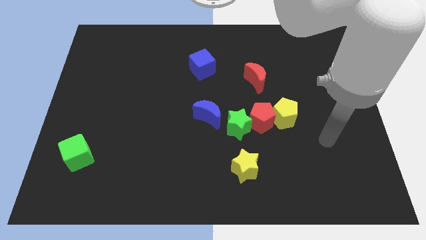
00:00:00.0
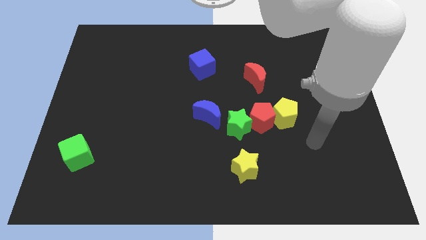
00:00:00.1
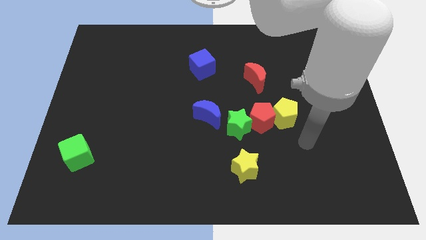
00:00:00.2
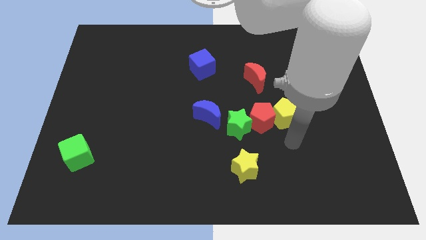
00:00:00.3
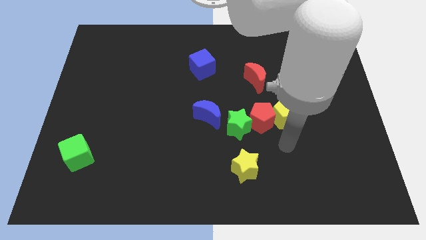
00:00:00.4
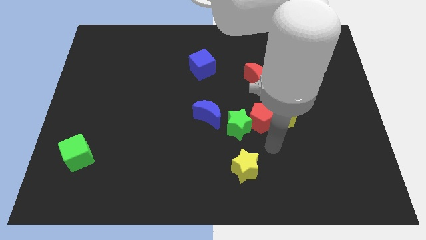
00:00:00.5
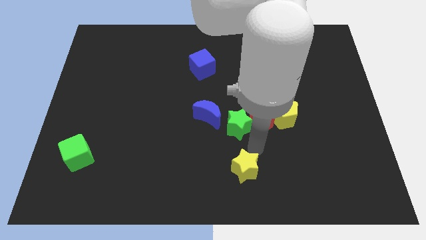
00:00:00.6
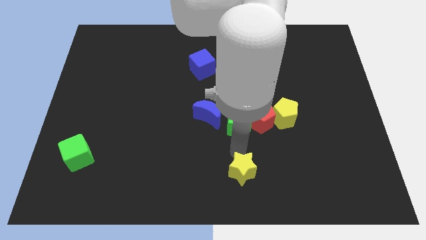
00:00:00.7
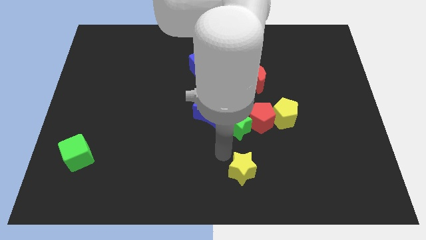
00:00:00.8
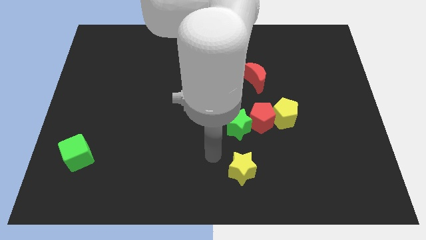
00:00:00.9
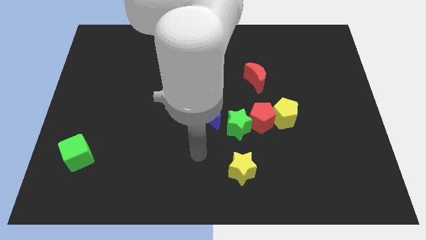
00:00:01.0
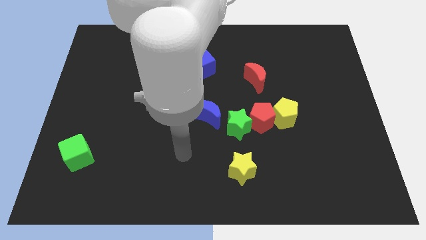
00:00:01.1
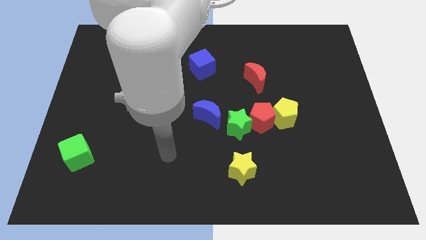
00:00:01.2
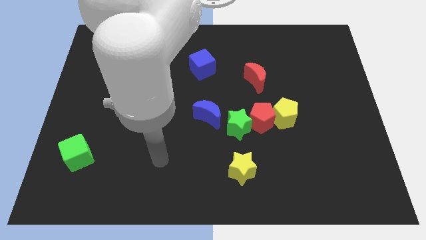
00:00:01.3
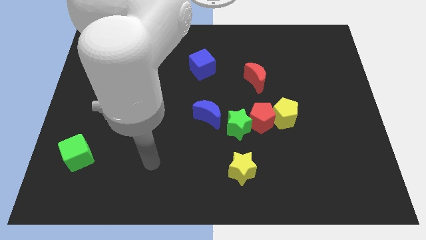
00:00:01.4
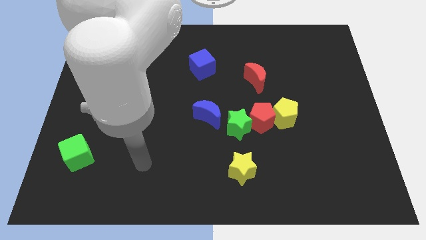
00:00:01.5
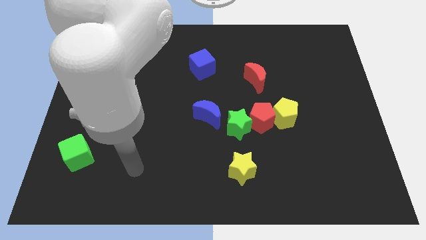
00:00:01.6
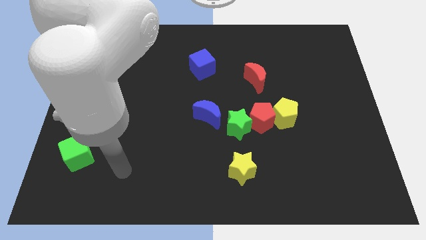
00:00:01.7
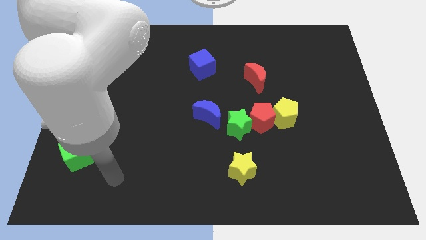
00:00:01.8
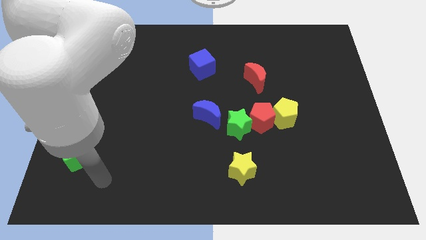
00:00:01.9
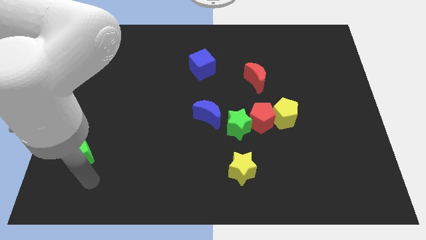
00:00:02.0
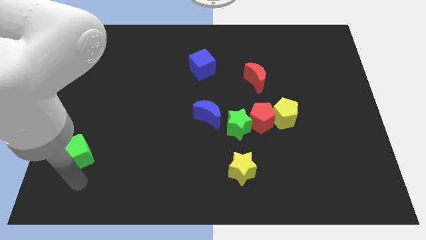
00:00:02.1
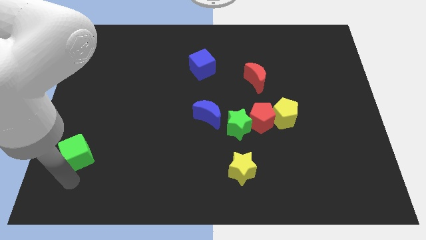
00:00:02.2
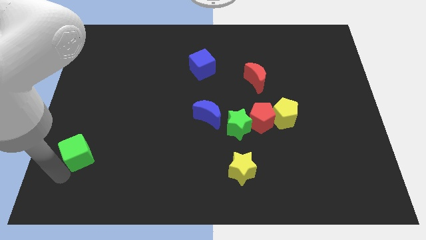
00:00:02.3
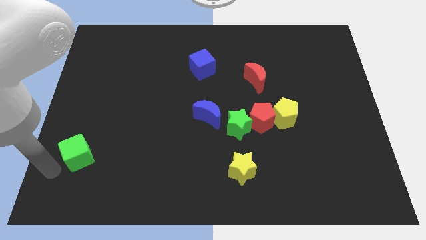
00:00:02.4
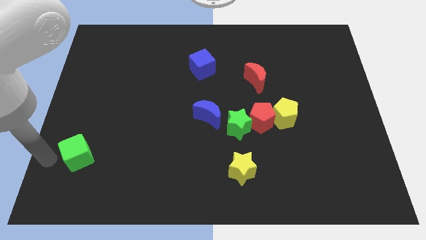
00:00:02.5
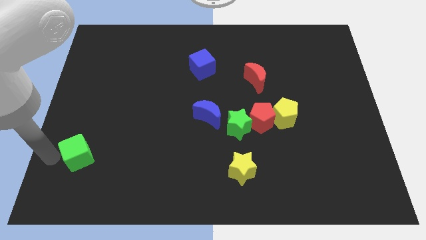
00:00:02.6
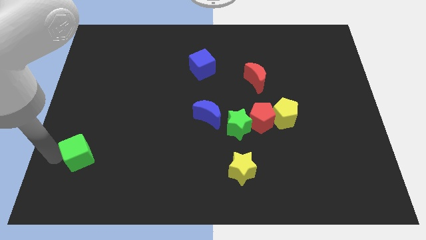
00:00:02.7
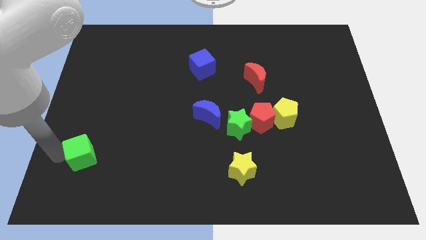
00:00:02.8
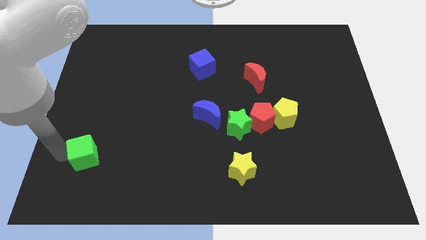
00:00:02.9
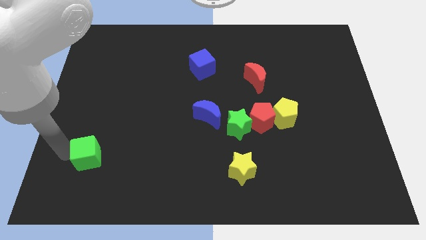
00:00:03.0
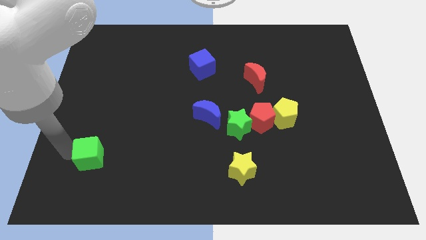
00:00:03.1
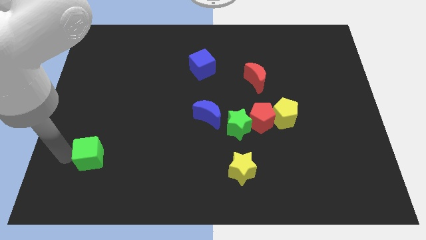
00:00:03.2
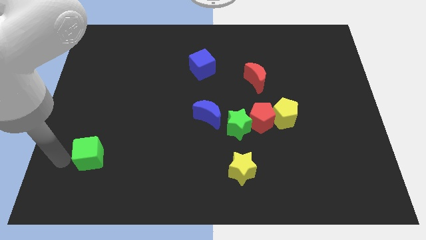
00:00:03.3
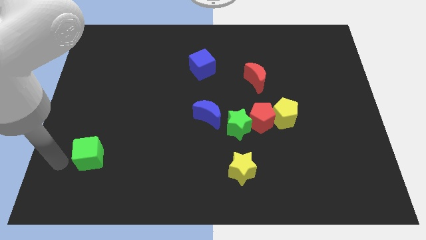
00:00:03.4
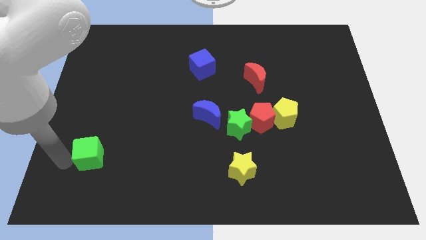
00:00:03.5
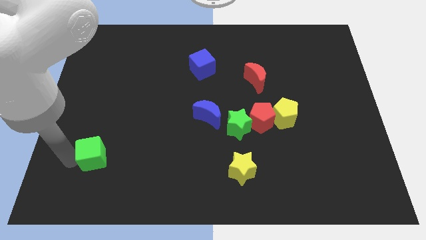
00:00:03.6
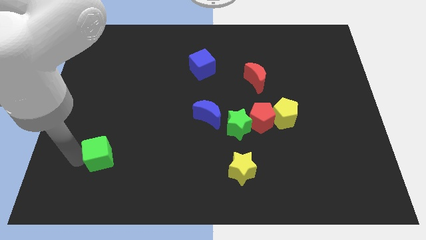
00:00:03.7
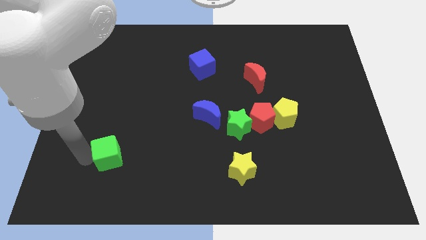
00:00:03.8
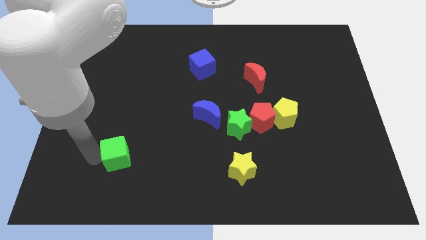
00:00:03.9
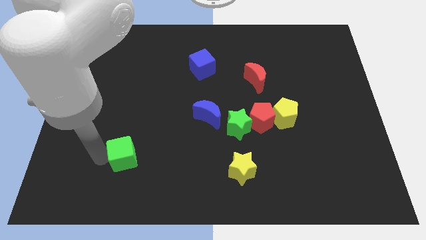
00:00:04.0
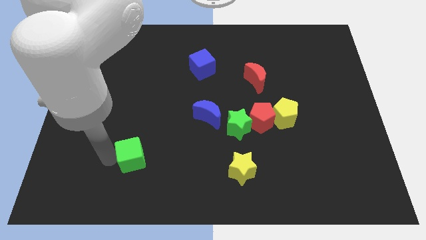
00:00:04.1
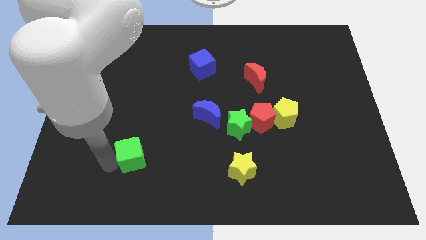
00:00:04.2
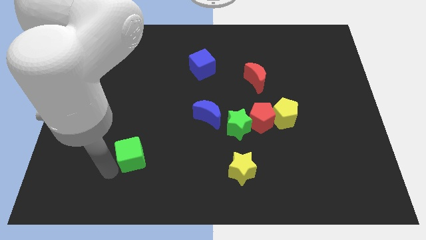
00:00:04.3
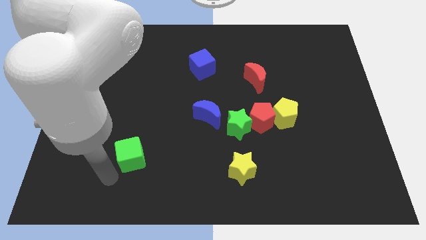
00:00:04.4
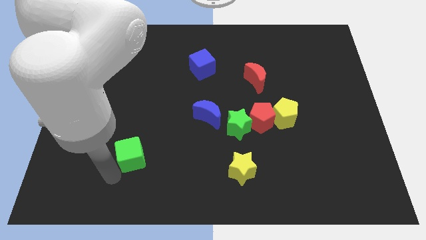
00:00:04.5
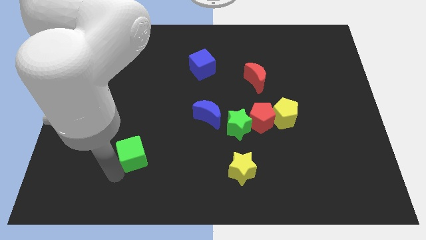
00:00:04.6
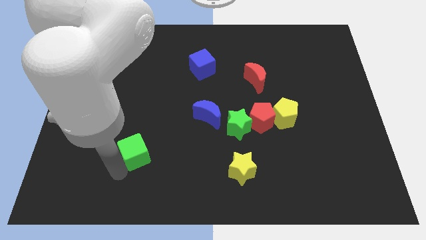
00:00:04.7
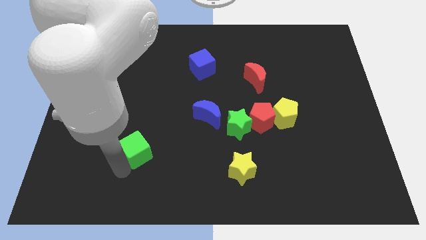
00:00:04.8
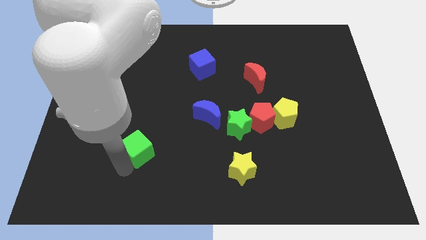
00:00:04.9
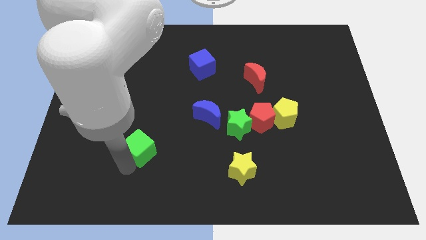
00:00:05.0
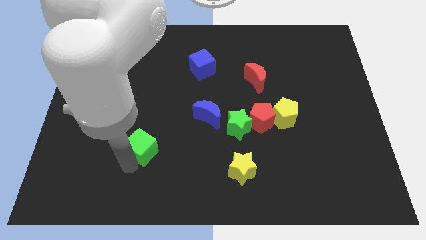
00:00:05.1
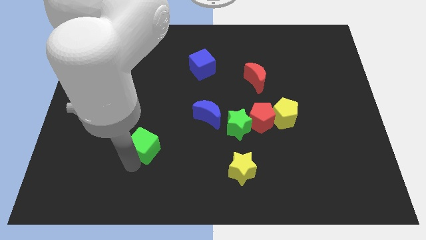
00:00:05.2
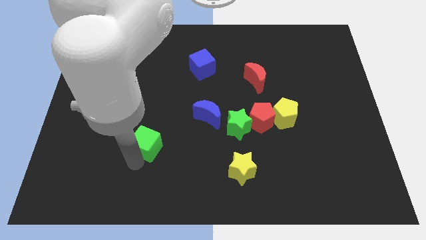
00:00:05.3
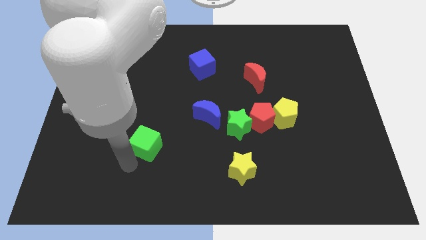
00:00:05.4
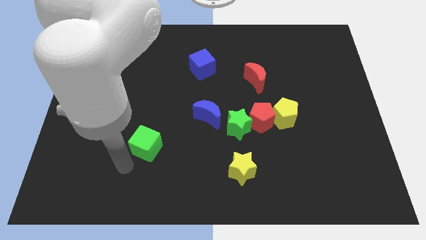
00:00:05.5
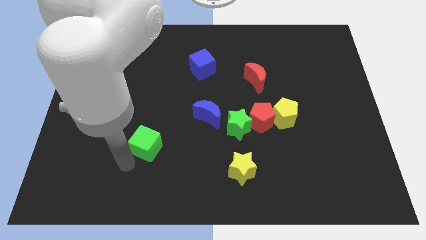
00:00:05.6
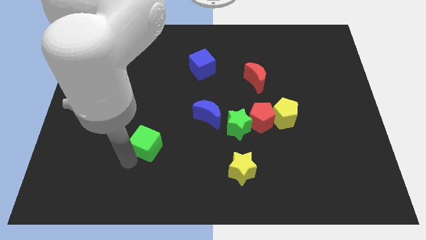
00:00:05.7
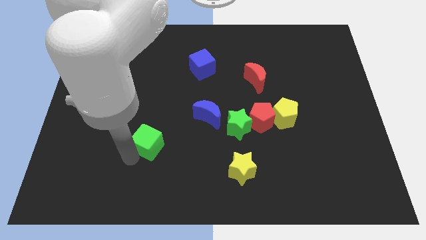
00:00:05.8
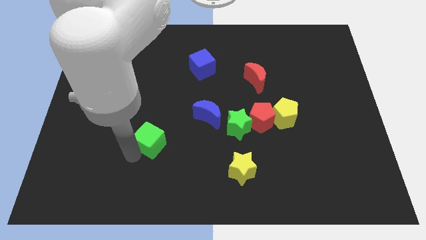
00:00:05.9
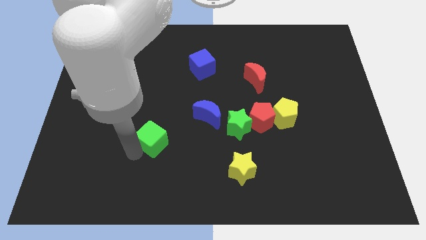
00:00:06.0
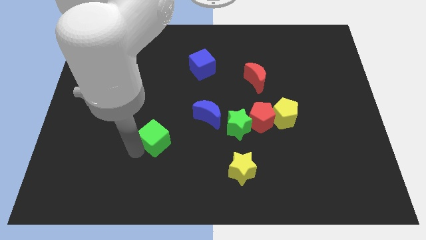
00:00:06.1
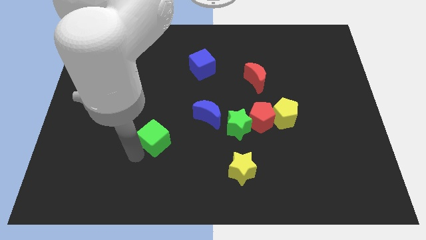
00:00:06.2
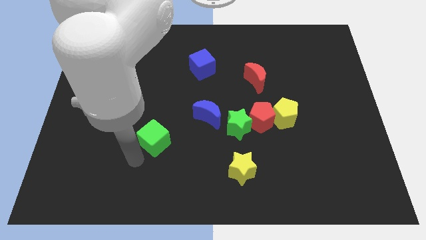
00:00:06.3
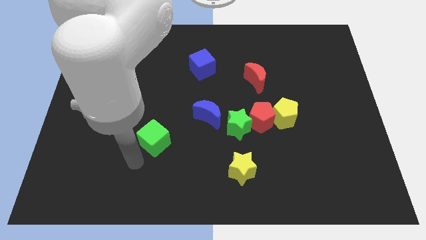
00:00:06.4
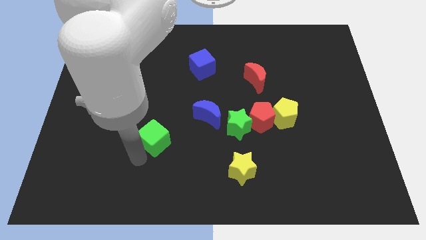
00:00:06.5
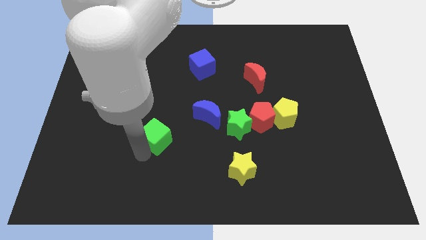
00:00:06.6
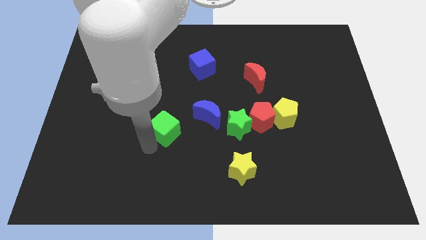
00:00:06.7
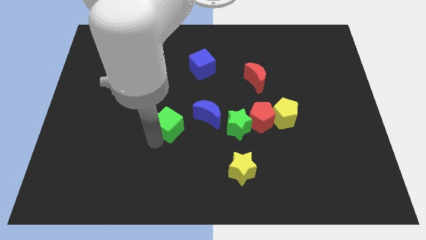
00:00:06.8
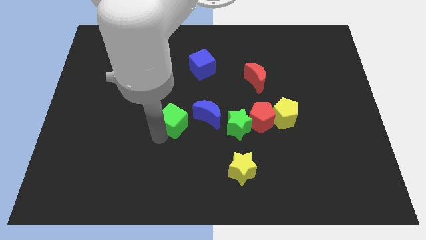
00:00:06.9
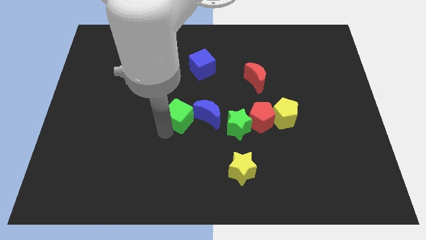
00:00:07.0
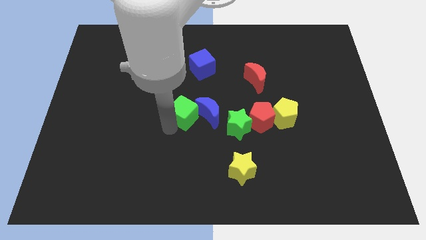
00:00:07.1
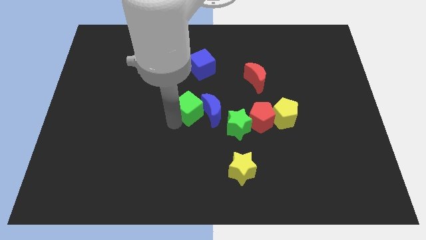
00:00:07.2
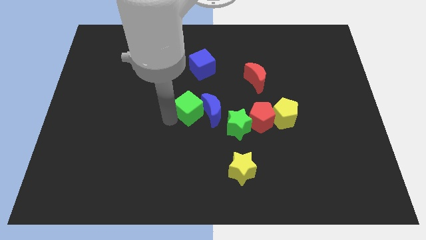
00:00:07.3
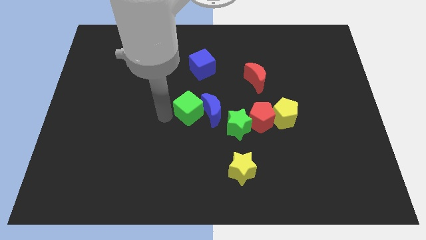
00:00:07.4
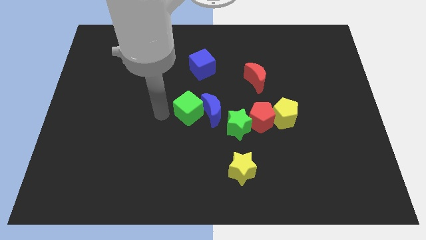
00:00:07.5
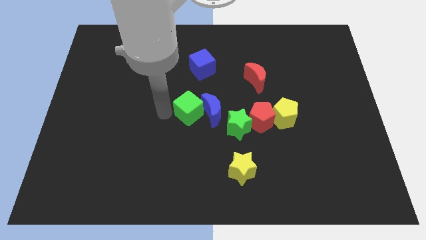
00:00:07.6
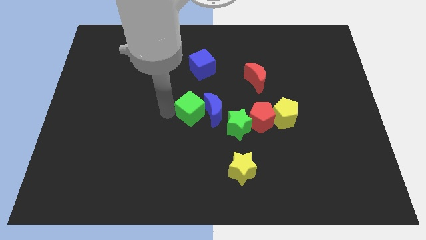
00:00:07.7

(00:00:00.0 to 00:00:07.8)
move the green cube diagonally up and to the left of the green star

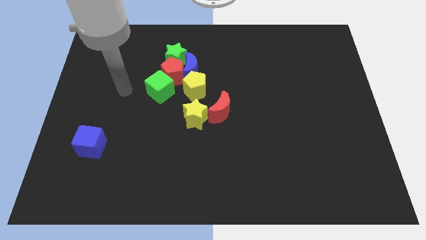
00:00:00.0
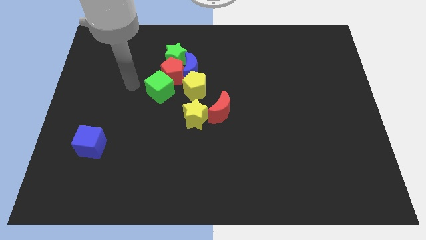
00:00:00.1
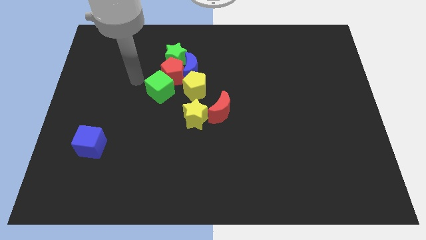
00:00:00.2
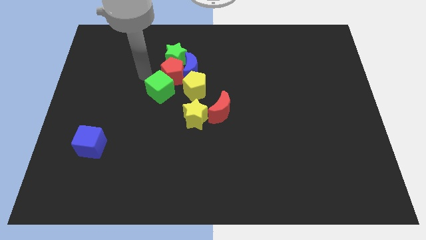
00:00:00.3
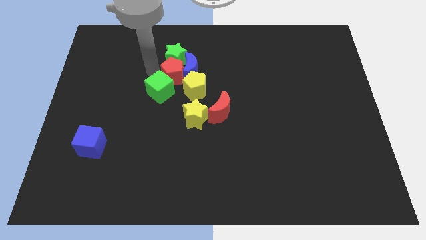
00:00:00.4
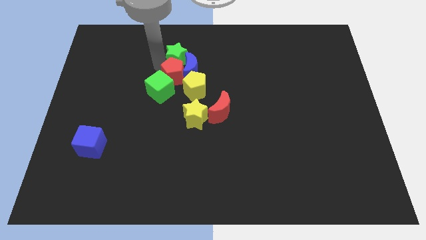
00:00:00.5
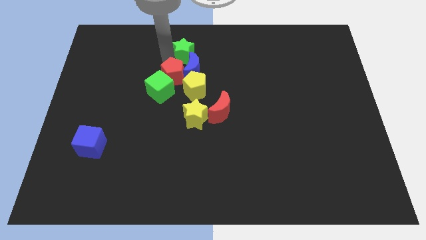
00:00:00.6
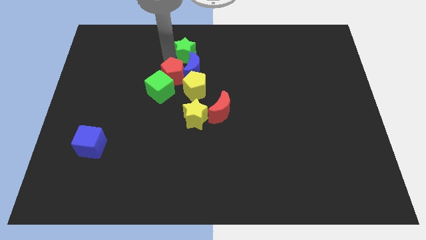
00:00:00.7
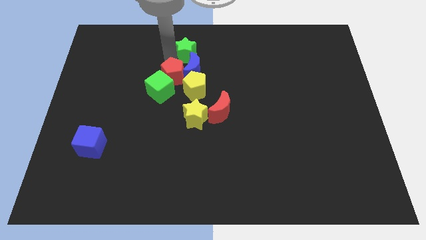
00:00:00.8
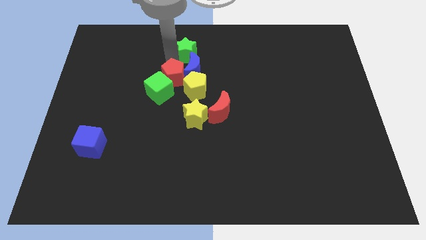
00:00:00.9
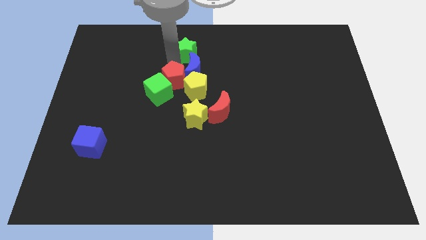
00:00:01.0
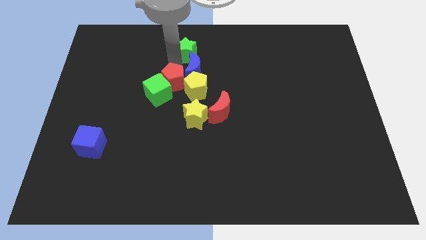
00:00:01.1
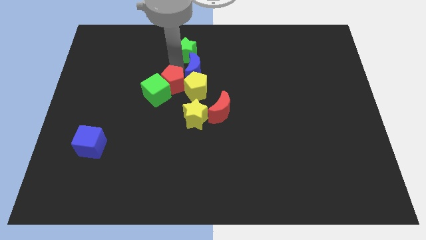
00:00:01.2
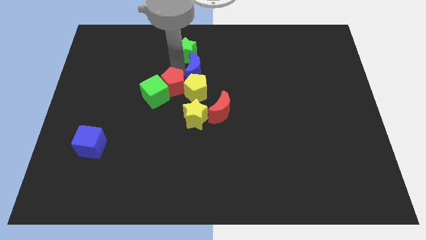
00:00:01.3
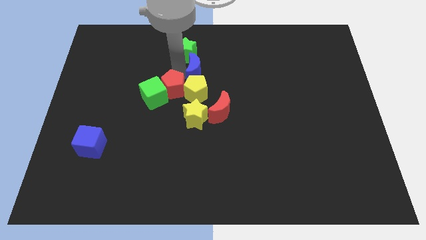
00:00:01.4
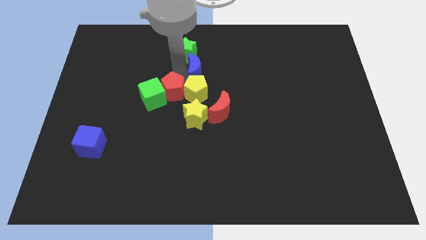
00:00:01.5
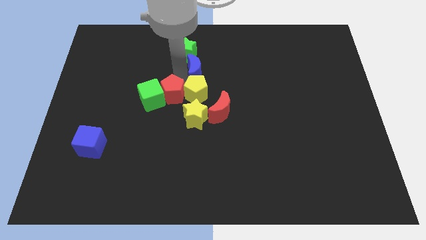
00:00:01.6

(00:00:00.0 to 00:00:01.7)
slide the red pentagon to the bottom right side of the green cube
